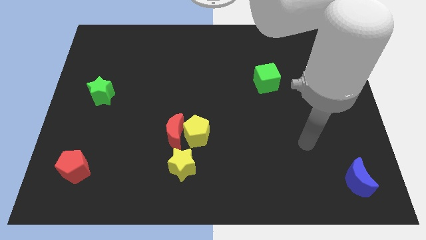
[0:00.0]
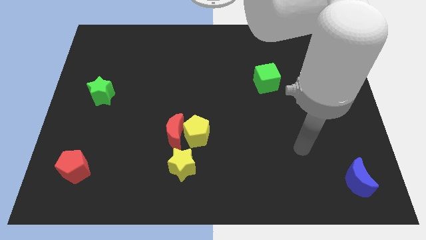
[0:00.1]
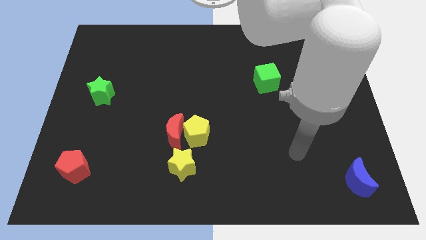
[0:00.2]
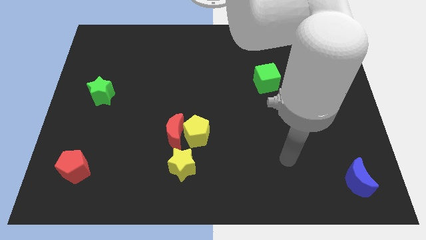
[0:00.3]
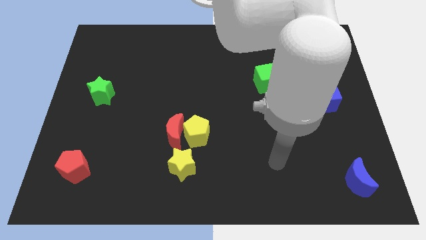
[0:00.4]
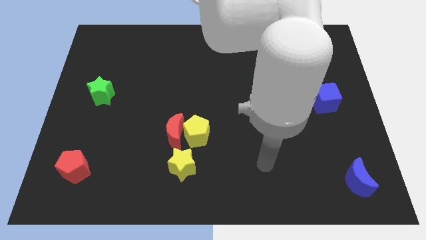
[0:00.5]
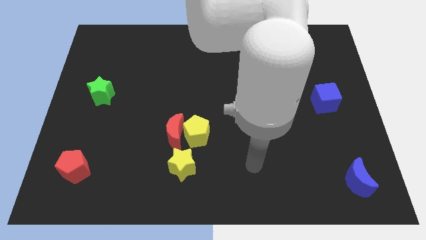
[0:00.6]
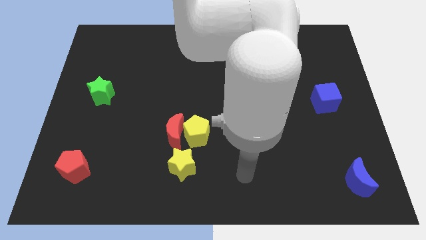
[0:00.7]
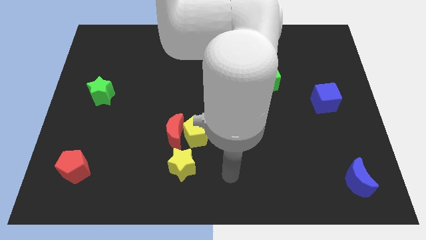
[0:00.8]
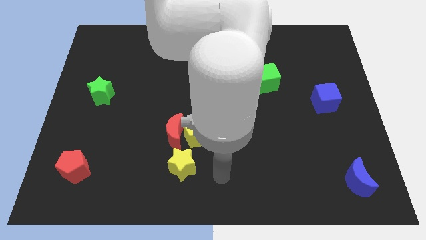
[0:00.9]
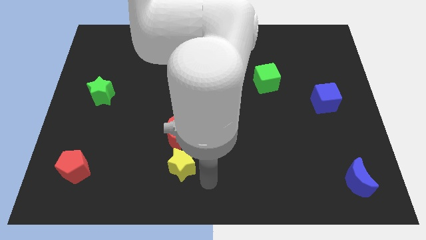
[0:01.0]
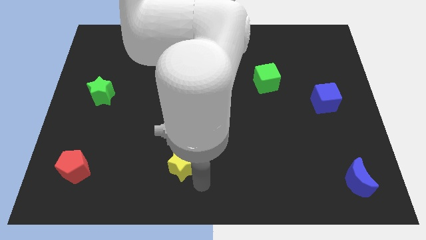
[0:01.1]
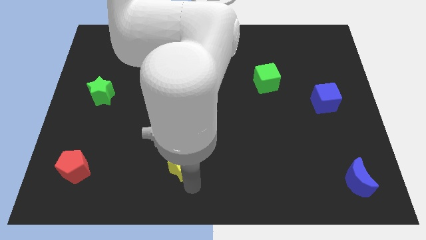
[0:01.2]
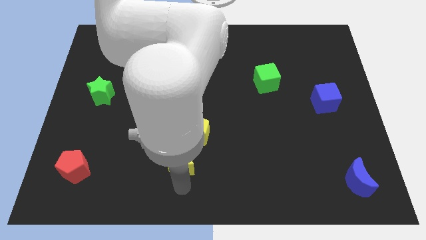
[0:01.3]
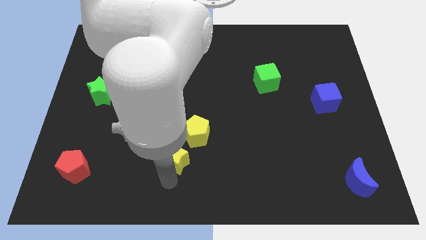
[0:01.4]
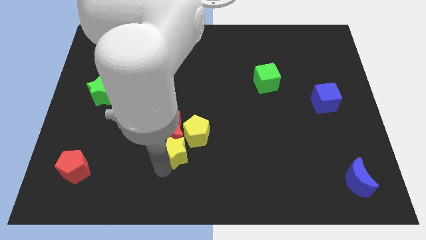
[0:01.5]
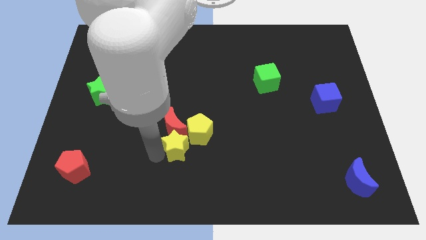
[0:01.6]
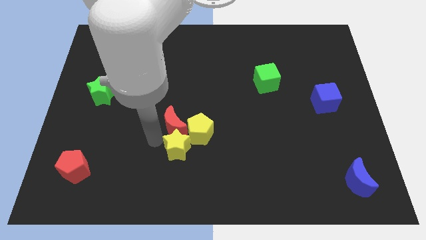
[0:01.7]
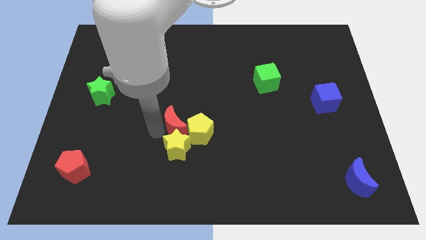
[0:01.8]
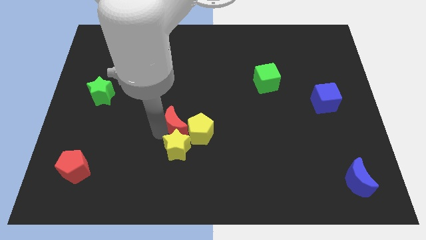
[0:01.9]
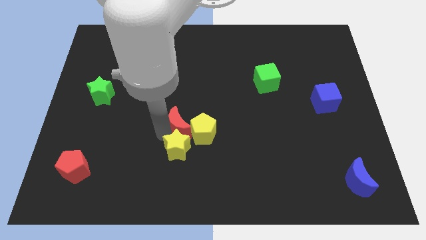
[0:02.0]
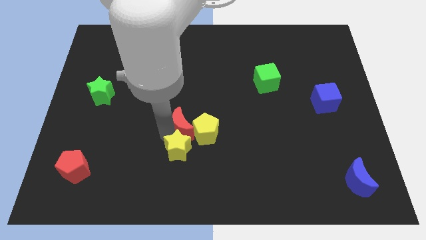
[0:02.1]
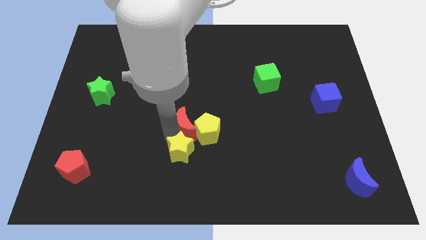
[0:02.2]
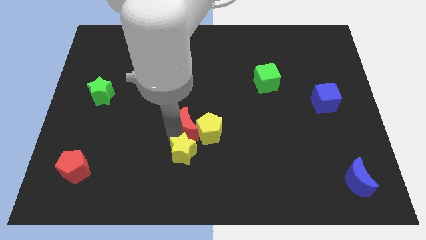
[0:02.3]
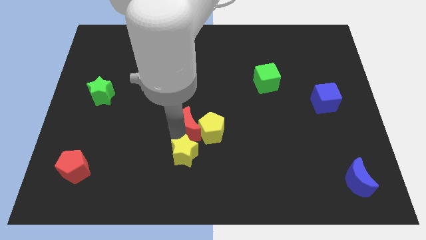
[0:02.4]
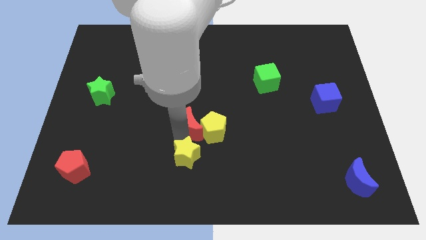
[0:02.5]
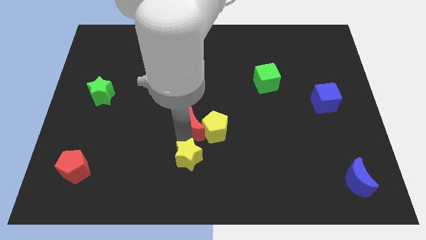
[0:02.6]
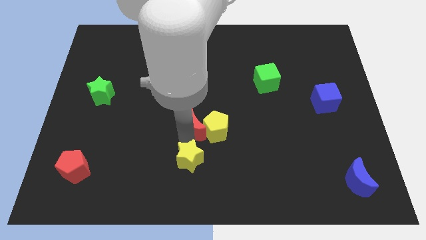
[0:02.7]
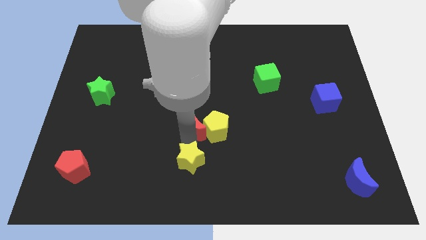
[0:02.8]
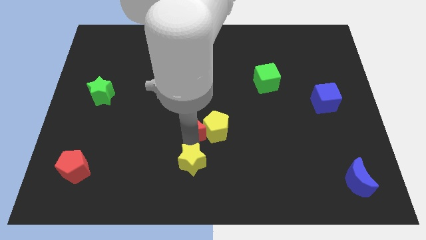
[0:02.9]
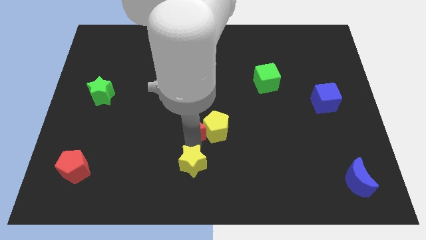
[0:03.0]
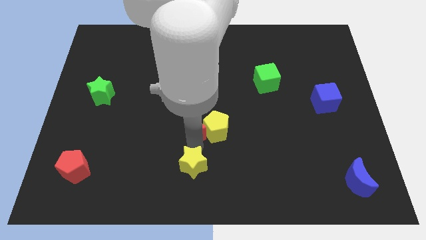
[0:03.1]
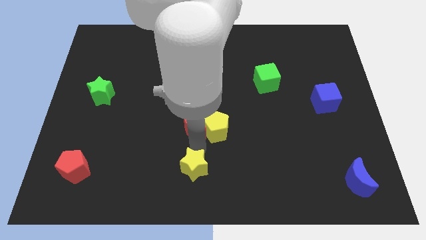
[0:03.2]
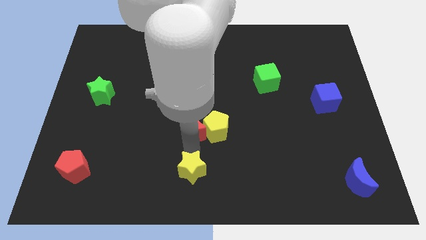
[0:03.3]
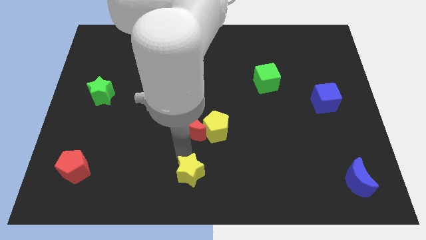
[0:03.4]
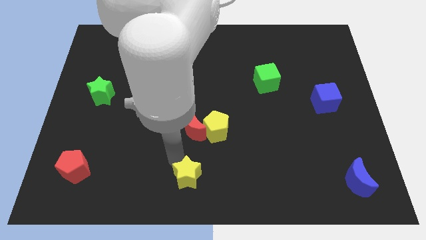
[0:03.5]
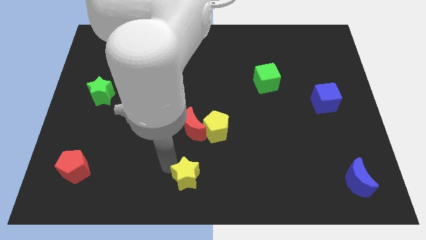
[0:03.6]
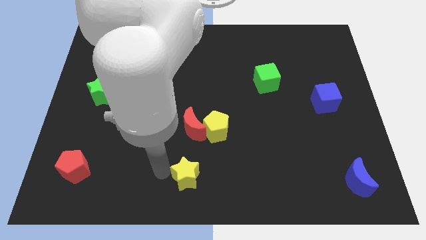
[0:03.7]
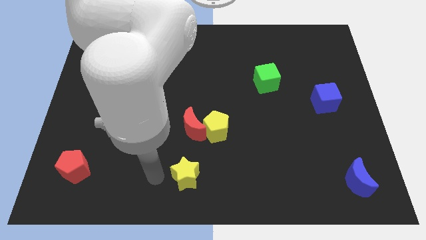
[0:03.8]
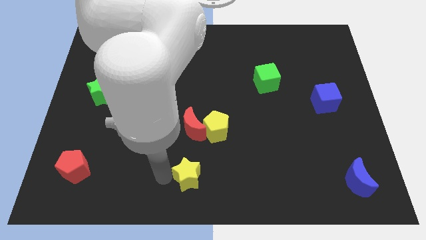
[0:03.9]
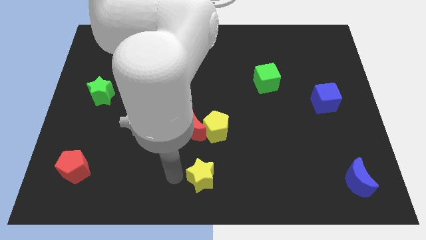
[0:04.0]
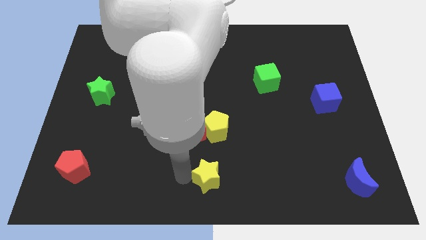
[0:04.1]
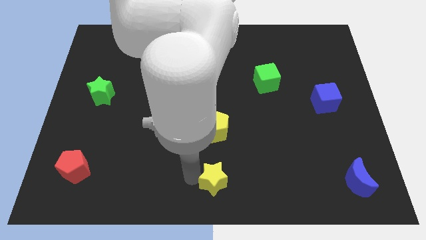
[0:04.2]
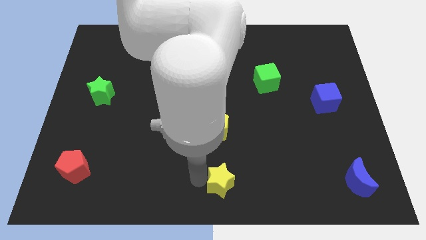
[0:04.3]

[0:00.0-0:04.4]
slide the yellow star slightly to the right

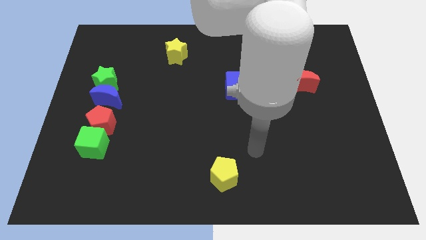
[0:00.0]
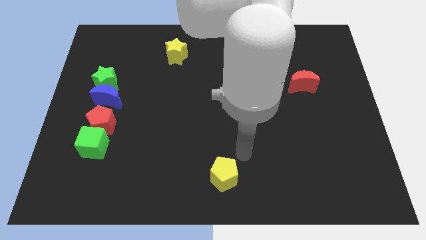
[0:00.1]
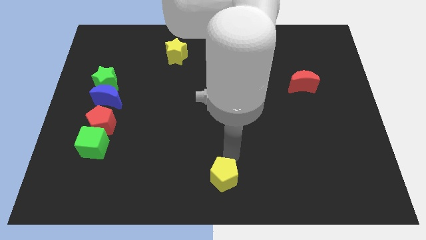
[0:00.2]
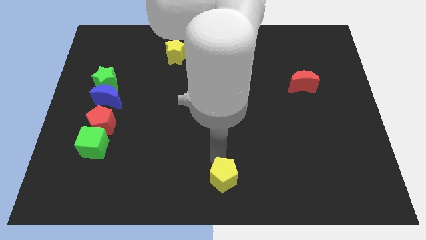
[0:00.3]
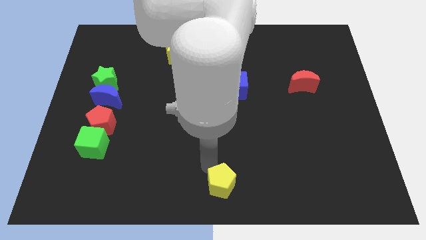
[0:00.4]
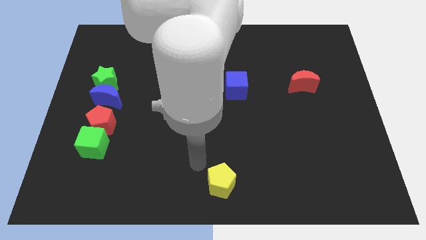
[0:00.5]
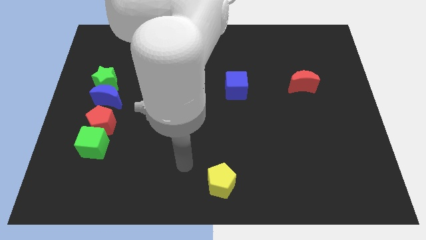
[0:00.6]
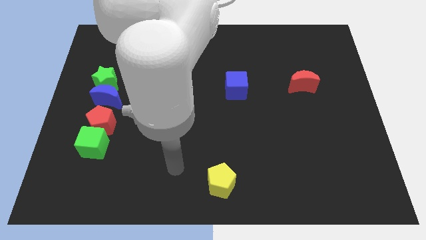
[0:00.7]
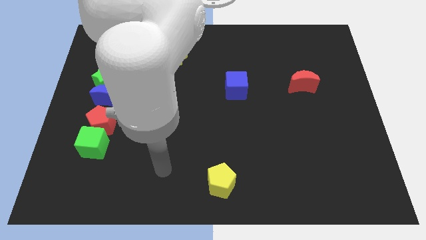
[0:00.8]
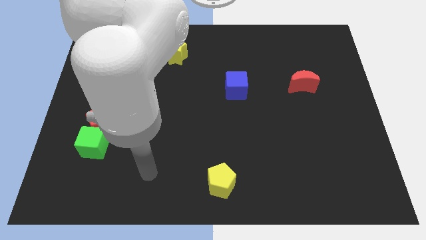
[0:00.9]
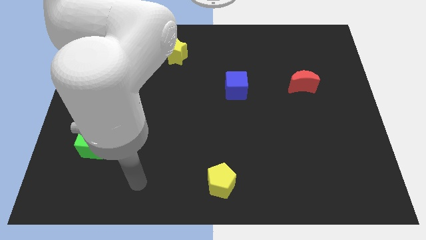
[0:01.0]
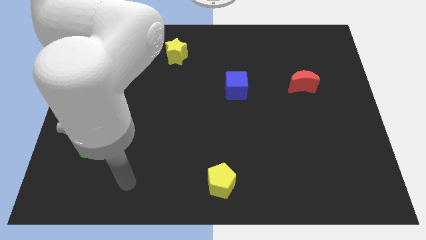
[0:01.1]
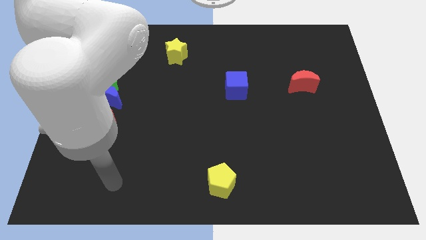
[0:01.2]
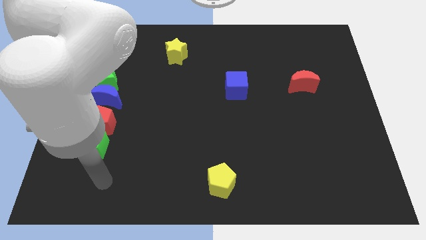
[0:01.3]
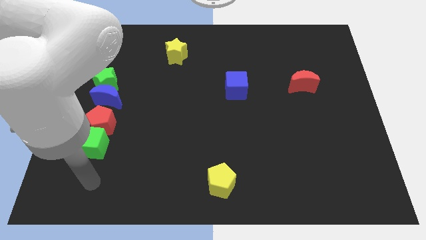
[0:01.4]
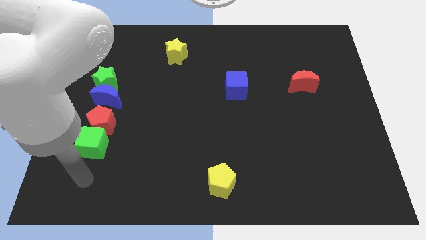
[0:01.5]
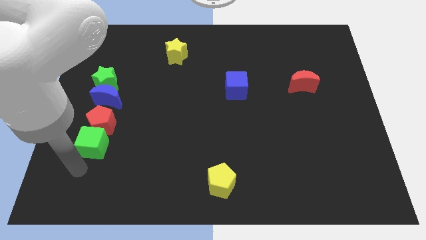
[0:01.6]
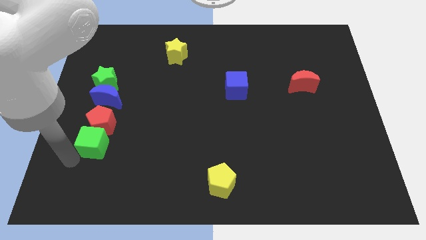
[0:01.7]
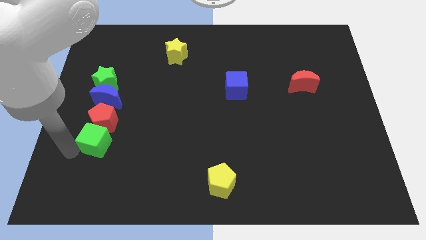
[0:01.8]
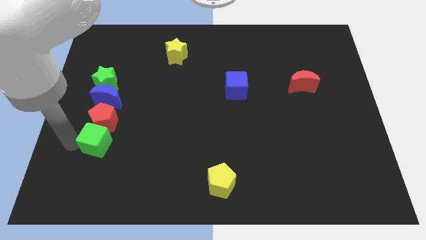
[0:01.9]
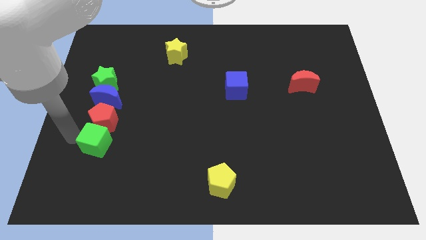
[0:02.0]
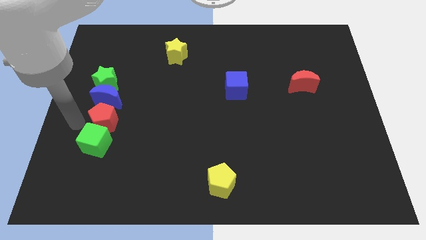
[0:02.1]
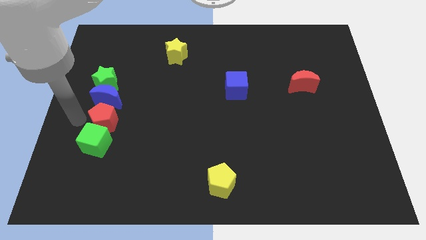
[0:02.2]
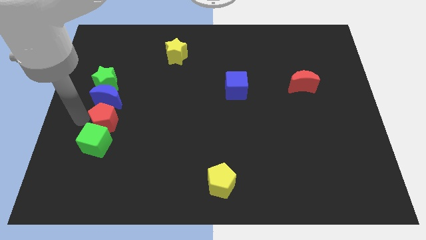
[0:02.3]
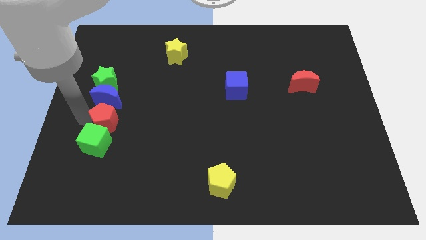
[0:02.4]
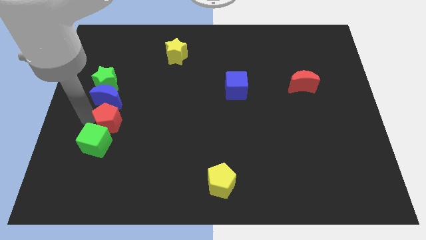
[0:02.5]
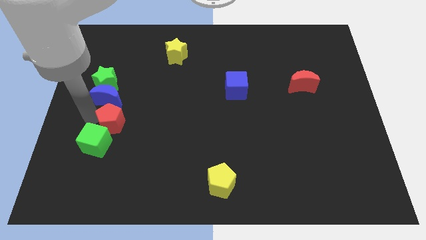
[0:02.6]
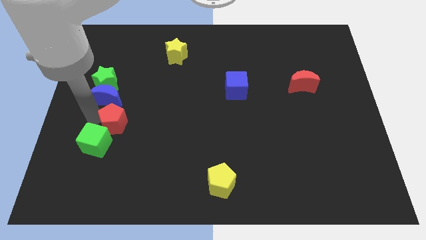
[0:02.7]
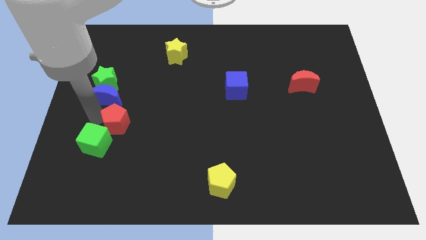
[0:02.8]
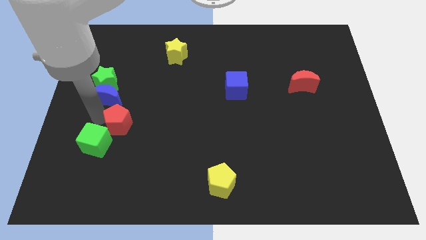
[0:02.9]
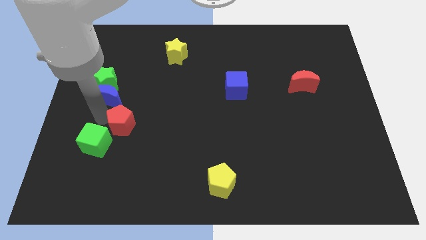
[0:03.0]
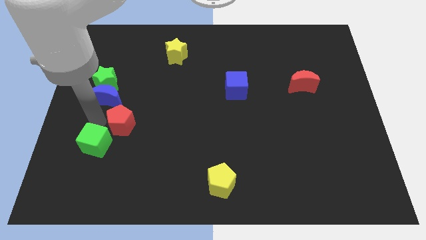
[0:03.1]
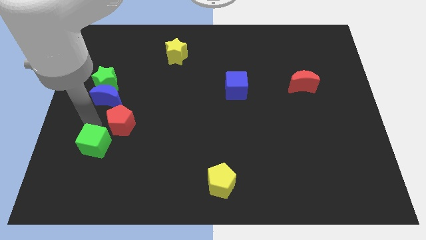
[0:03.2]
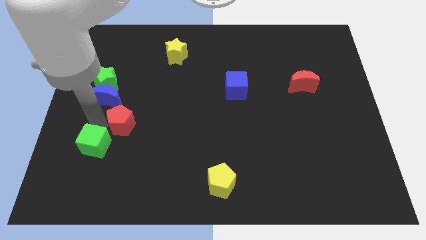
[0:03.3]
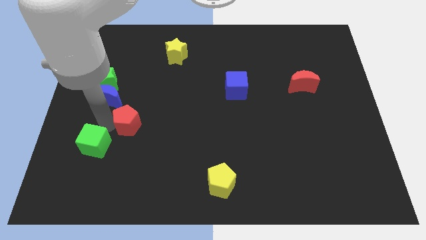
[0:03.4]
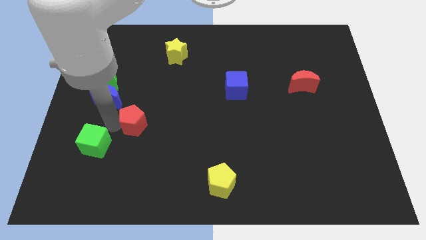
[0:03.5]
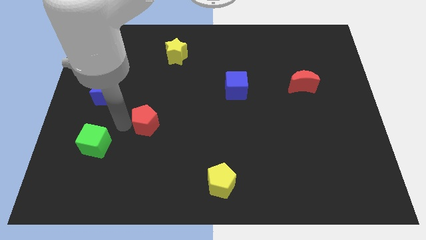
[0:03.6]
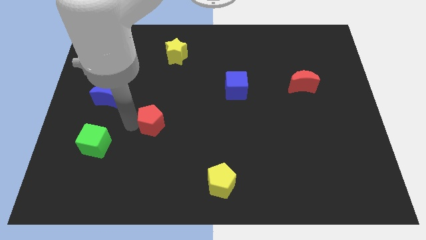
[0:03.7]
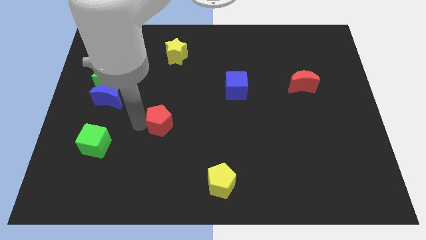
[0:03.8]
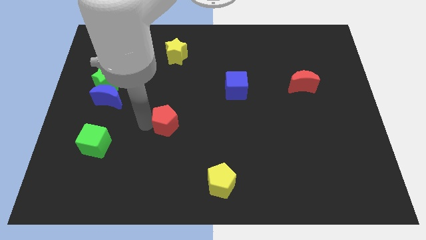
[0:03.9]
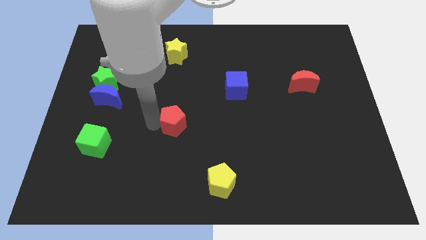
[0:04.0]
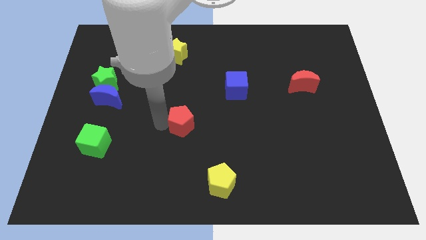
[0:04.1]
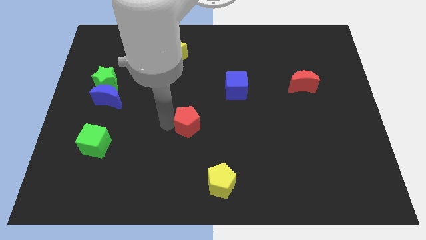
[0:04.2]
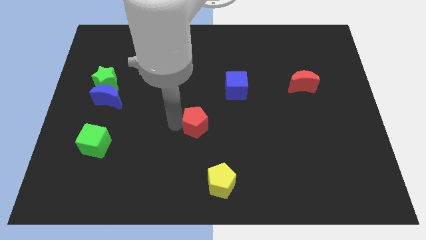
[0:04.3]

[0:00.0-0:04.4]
move the red pentagon right
